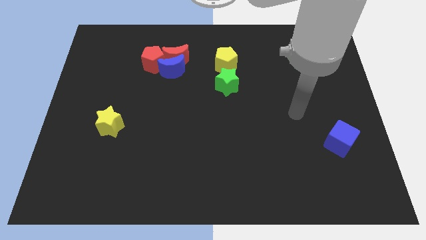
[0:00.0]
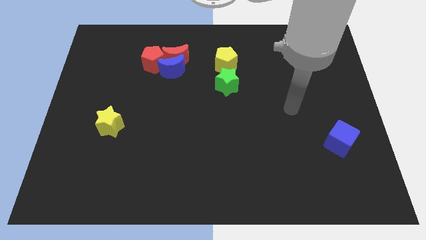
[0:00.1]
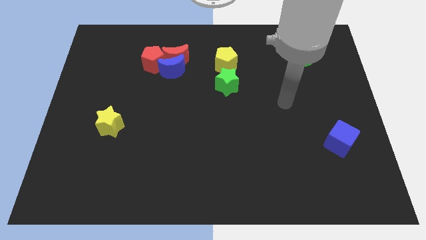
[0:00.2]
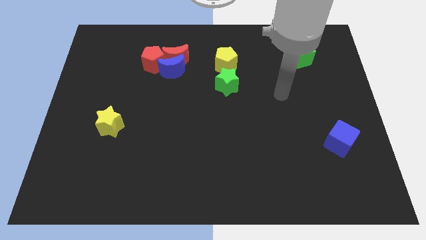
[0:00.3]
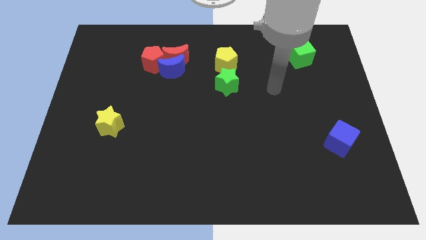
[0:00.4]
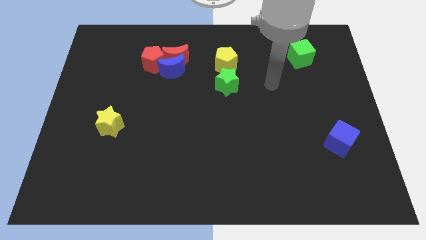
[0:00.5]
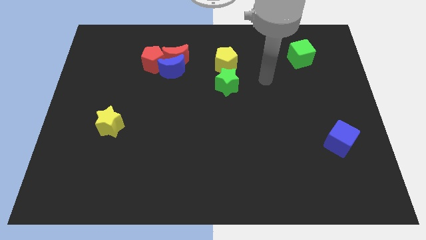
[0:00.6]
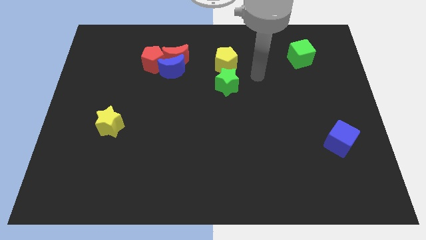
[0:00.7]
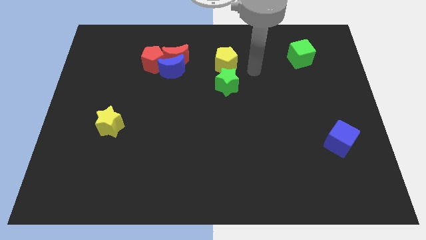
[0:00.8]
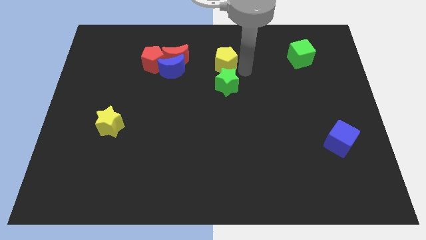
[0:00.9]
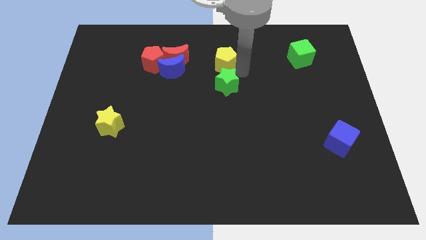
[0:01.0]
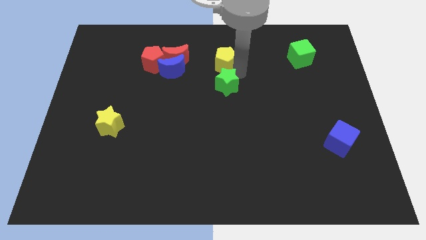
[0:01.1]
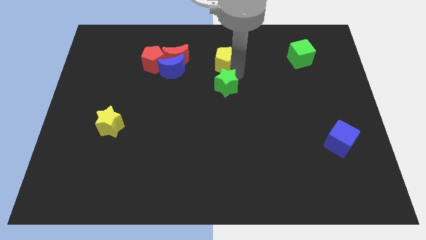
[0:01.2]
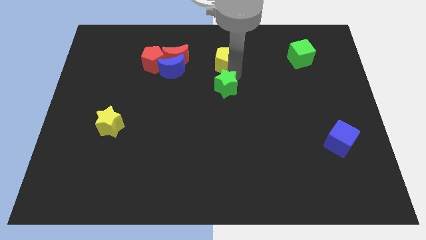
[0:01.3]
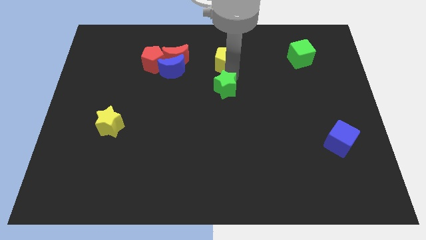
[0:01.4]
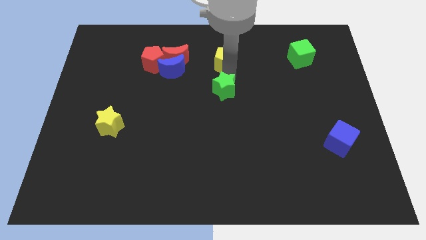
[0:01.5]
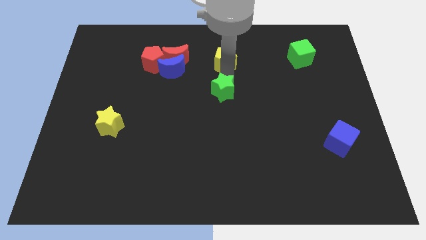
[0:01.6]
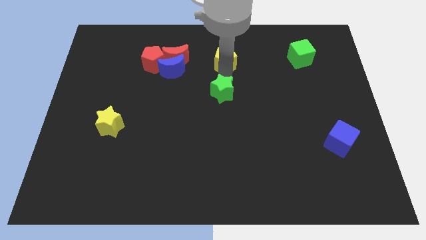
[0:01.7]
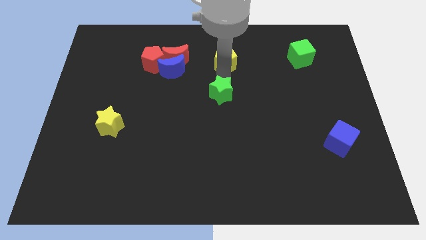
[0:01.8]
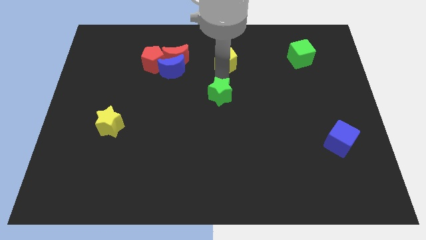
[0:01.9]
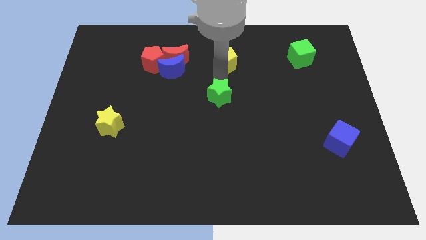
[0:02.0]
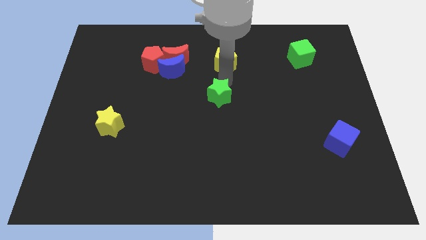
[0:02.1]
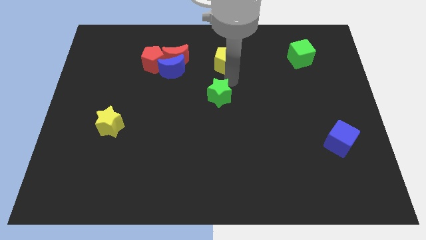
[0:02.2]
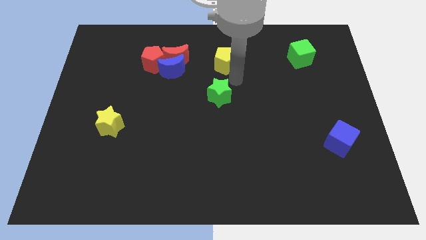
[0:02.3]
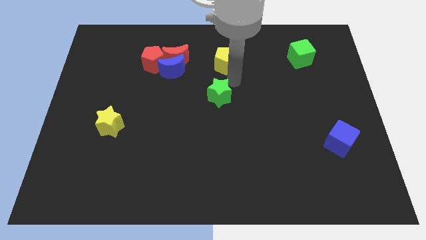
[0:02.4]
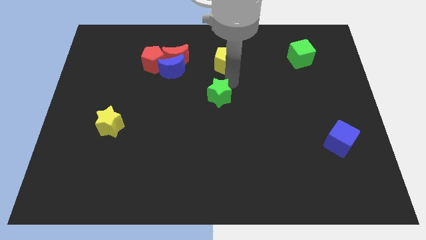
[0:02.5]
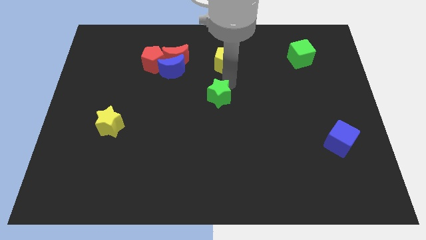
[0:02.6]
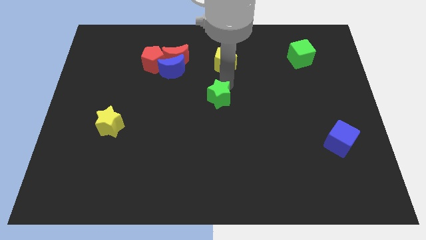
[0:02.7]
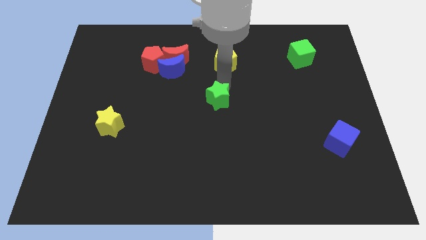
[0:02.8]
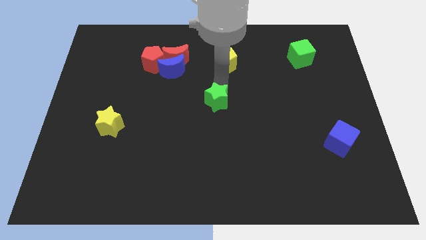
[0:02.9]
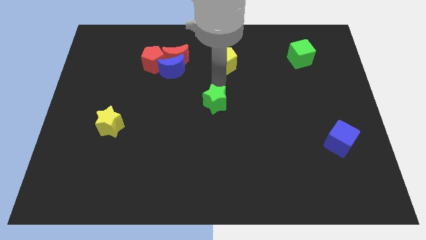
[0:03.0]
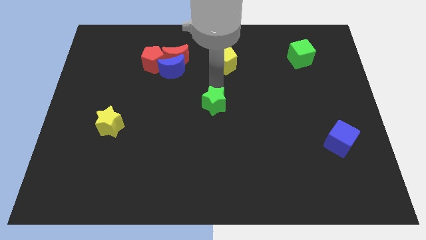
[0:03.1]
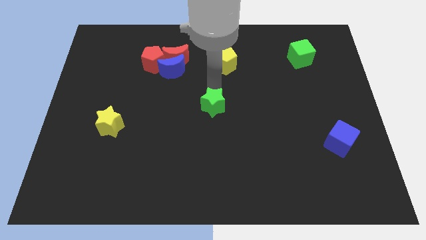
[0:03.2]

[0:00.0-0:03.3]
slightly move the green star down and left

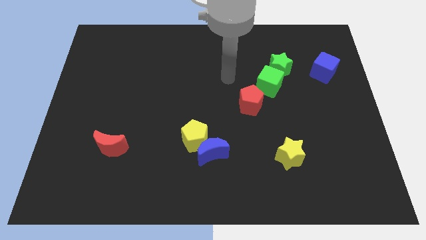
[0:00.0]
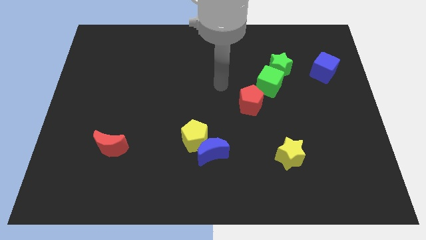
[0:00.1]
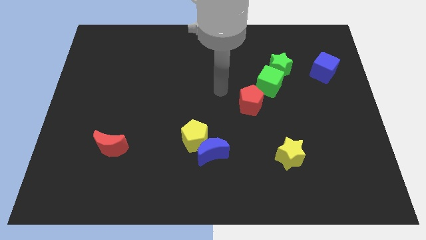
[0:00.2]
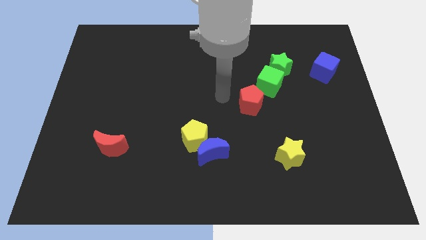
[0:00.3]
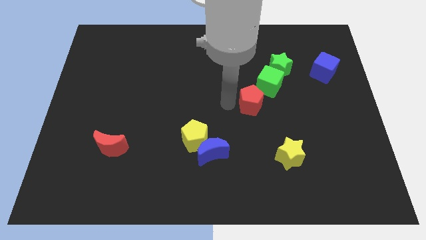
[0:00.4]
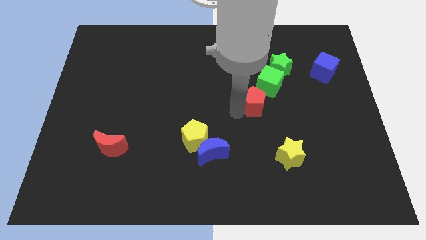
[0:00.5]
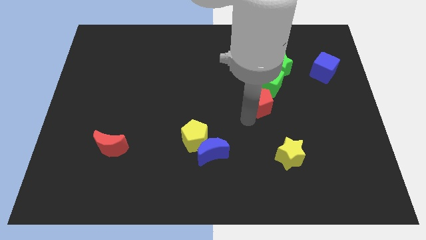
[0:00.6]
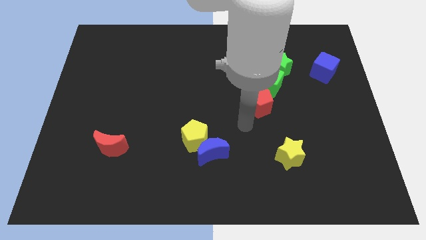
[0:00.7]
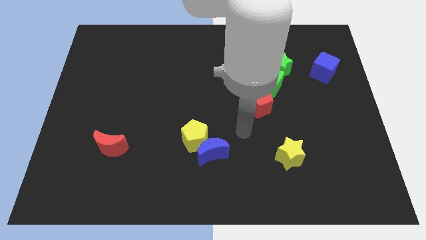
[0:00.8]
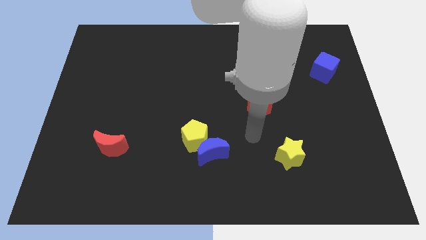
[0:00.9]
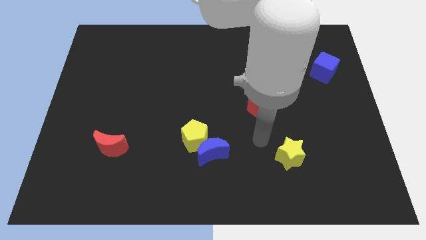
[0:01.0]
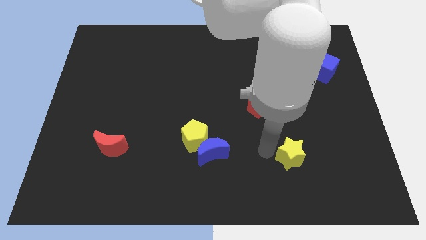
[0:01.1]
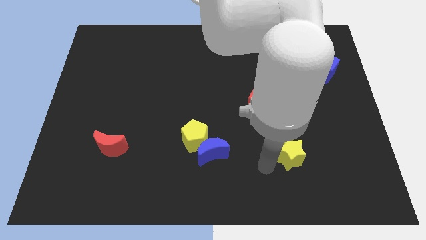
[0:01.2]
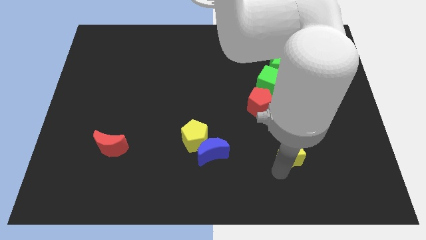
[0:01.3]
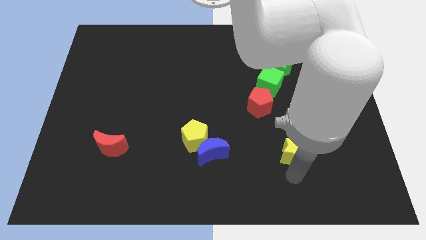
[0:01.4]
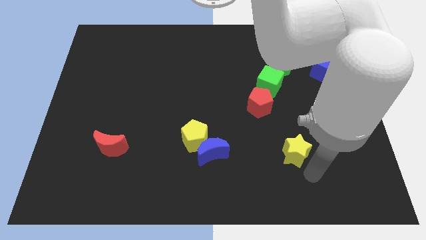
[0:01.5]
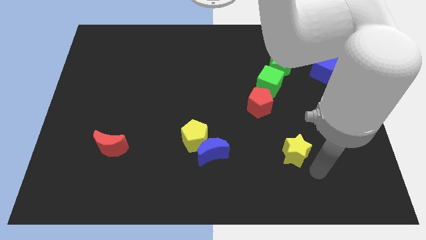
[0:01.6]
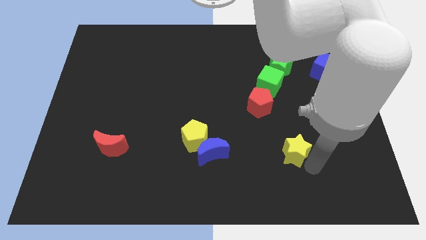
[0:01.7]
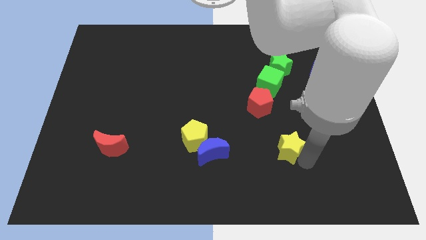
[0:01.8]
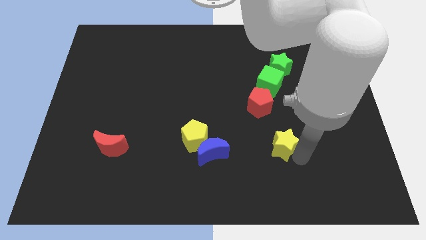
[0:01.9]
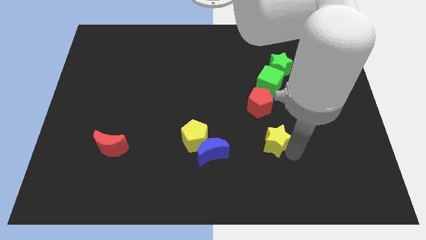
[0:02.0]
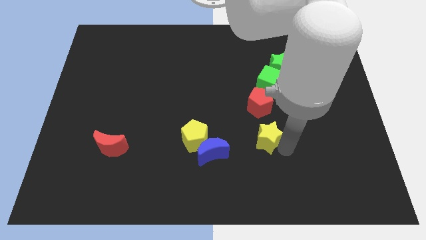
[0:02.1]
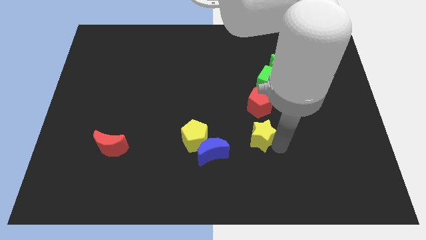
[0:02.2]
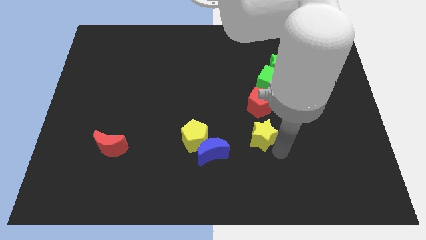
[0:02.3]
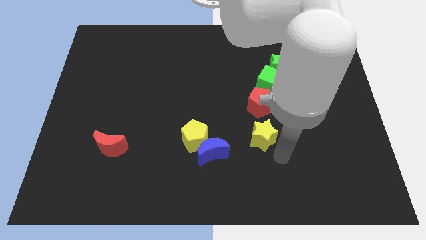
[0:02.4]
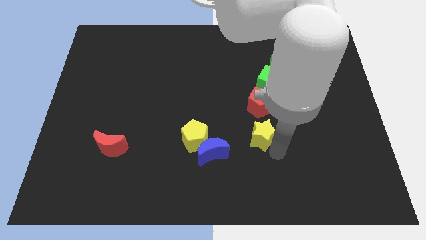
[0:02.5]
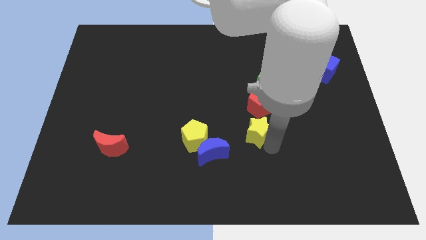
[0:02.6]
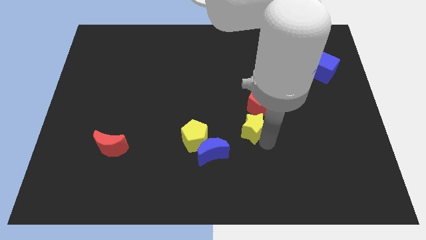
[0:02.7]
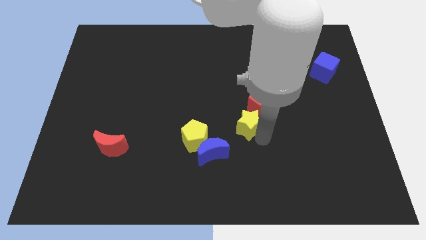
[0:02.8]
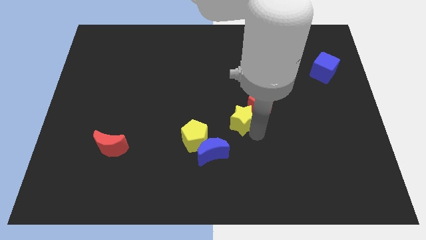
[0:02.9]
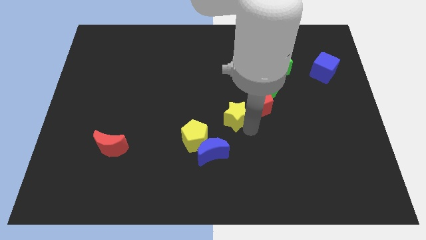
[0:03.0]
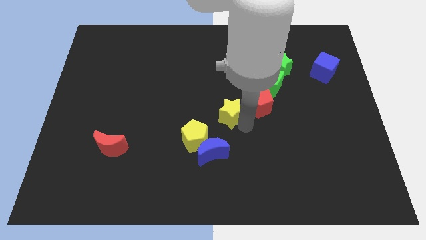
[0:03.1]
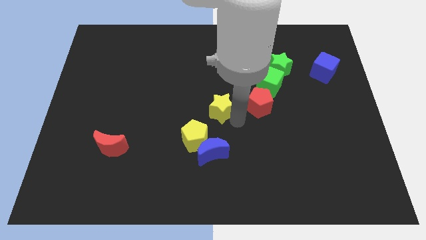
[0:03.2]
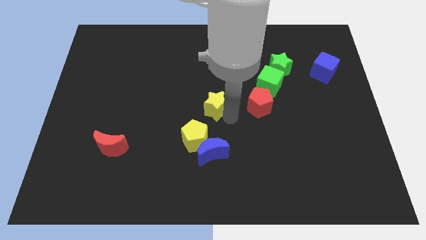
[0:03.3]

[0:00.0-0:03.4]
slide the yellow star diagonally up and to the left

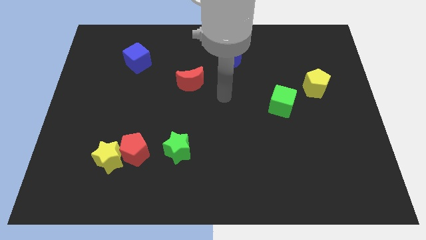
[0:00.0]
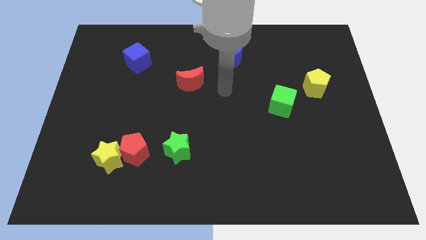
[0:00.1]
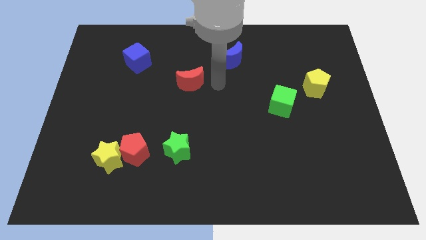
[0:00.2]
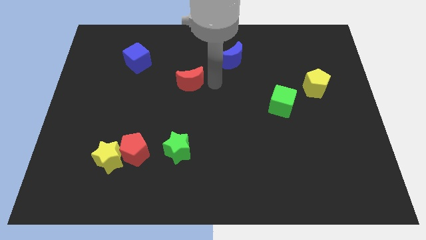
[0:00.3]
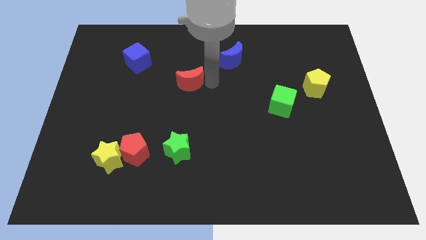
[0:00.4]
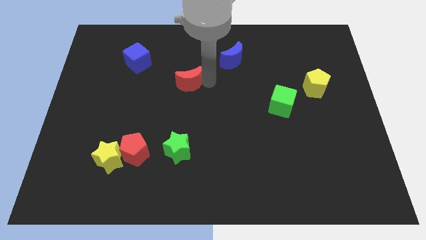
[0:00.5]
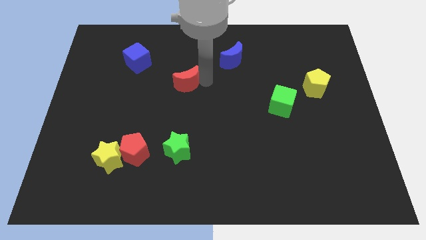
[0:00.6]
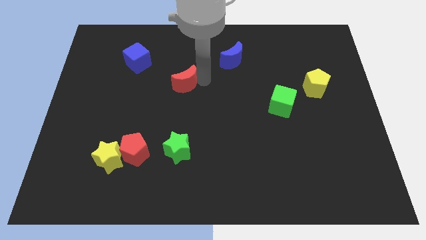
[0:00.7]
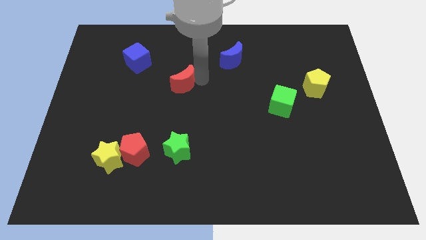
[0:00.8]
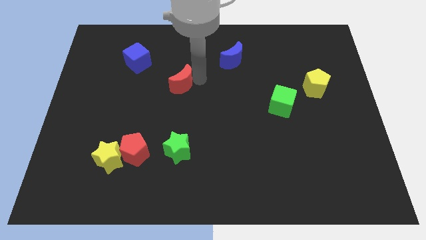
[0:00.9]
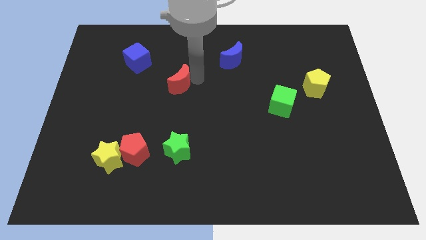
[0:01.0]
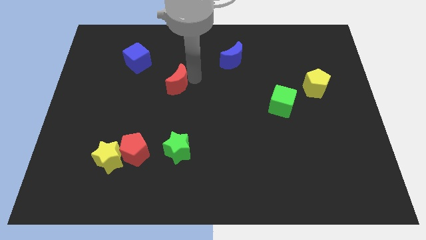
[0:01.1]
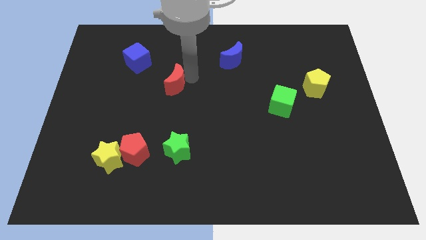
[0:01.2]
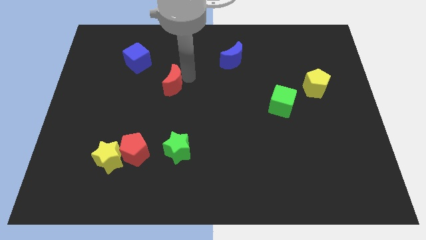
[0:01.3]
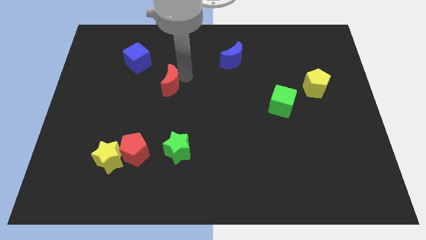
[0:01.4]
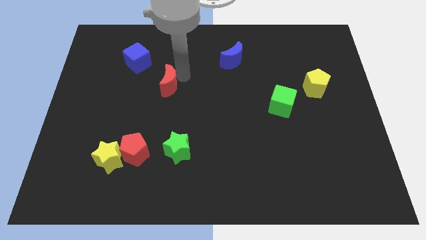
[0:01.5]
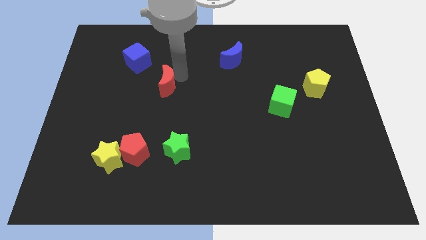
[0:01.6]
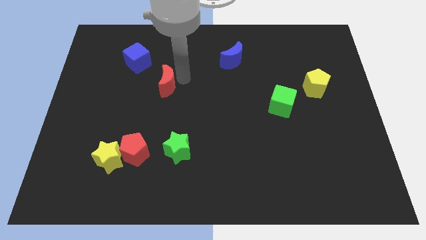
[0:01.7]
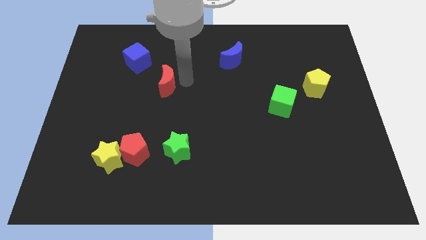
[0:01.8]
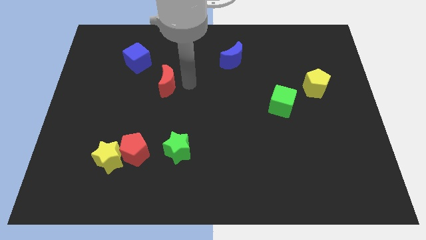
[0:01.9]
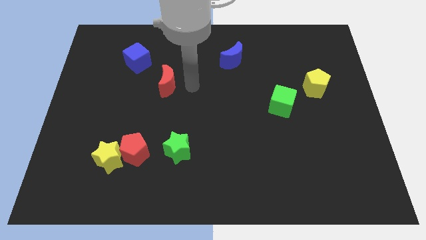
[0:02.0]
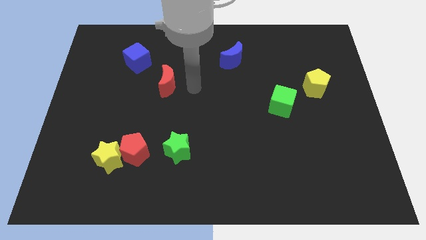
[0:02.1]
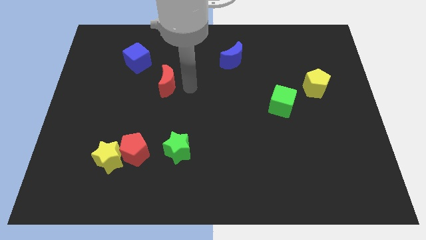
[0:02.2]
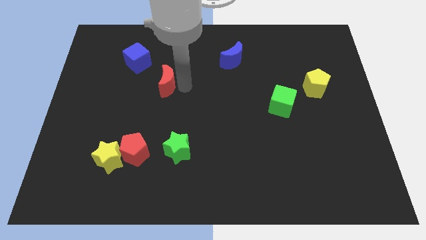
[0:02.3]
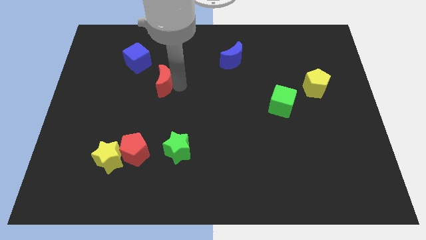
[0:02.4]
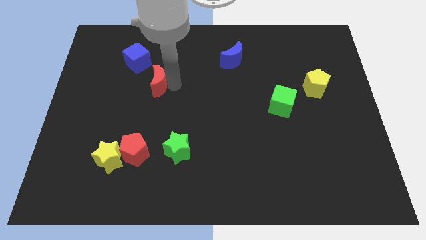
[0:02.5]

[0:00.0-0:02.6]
slightly push the red moon left
